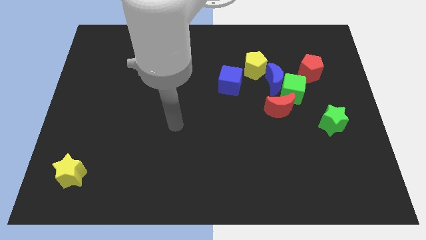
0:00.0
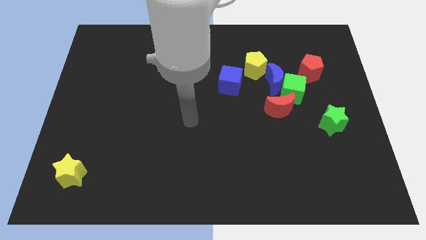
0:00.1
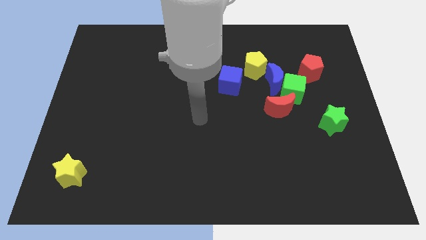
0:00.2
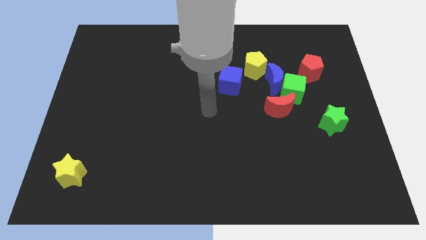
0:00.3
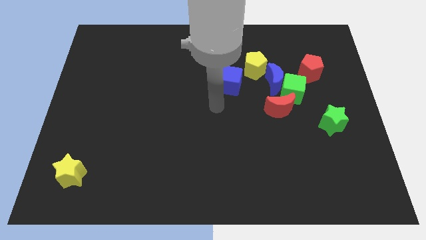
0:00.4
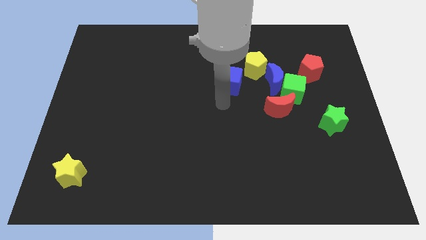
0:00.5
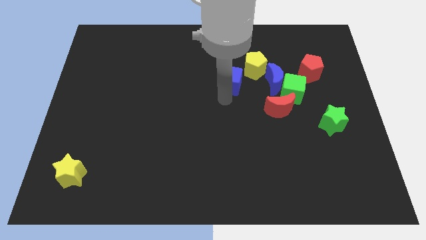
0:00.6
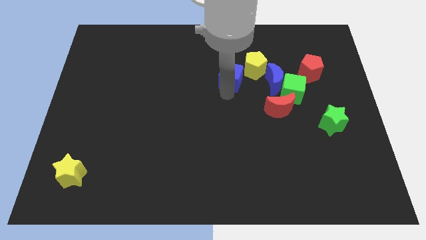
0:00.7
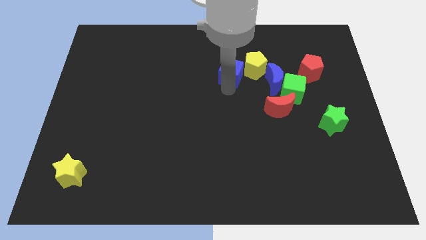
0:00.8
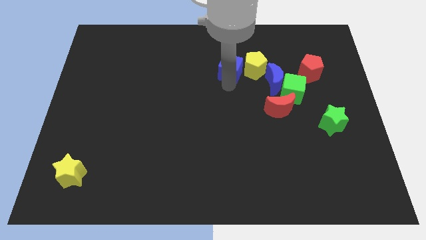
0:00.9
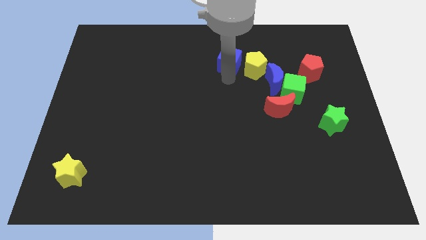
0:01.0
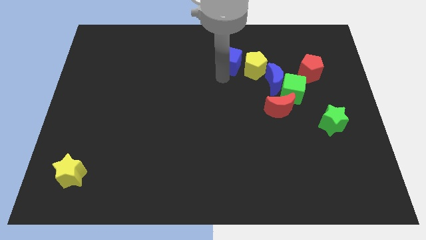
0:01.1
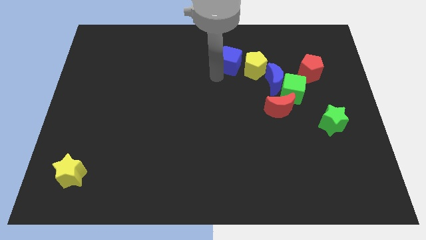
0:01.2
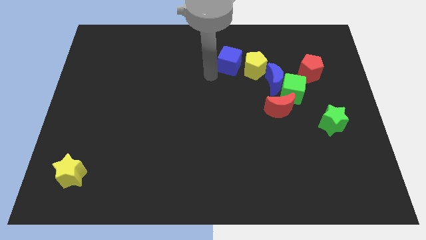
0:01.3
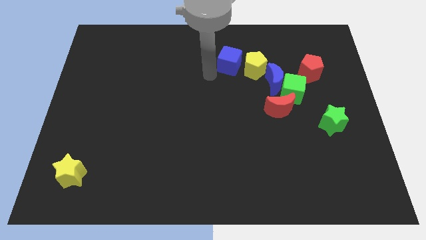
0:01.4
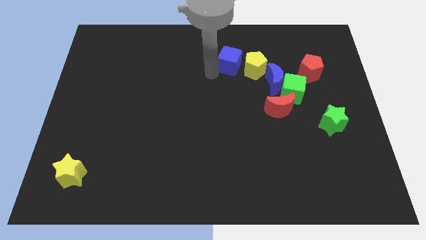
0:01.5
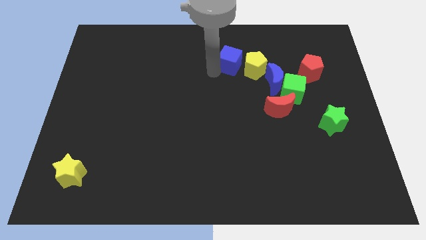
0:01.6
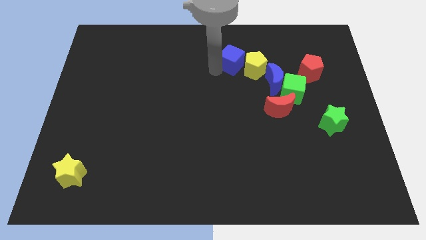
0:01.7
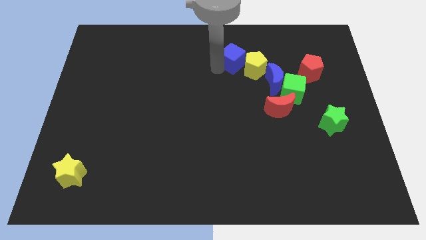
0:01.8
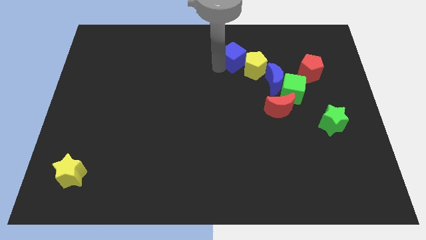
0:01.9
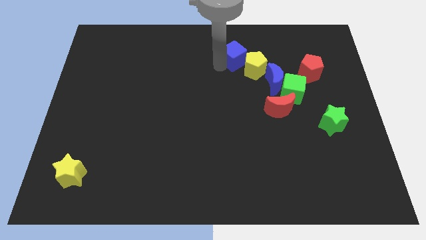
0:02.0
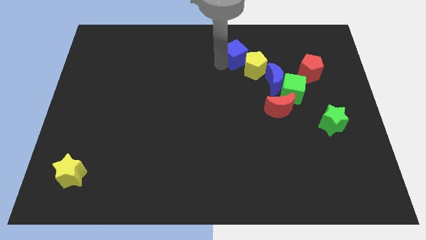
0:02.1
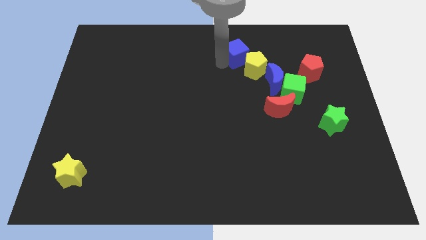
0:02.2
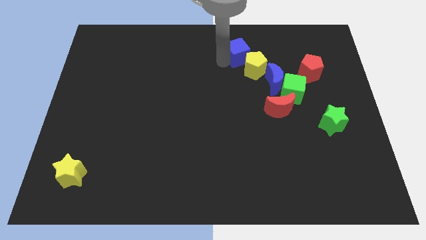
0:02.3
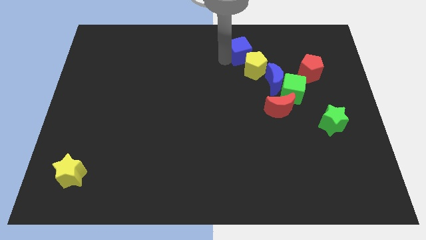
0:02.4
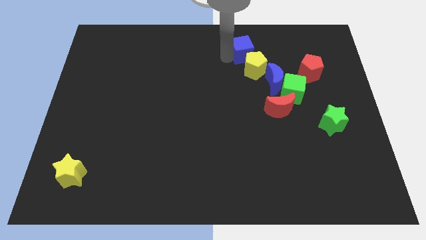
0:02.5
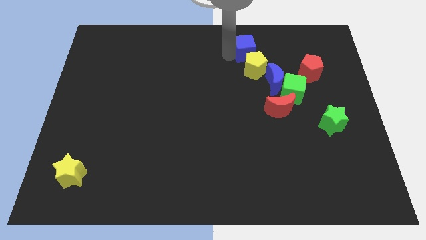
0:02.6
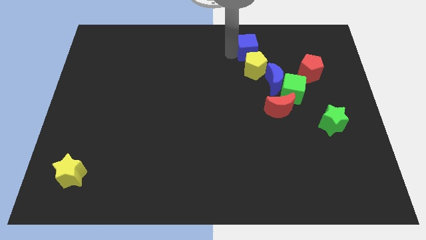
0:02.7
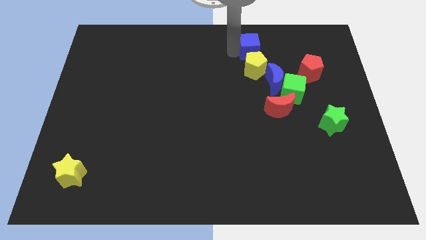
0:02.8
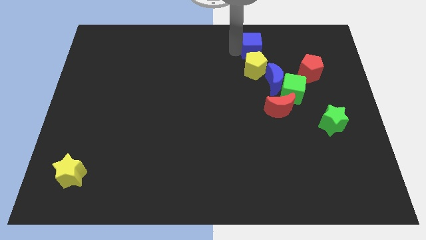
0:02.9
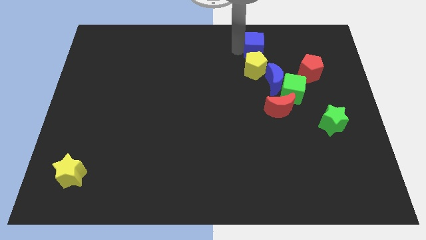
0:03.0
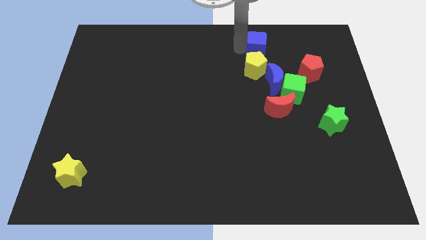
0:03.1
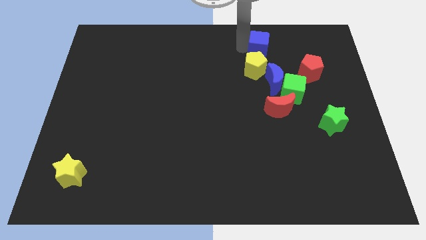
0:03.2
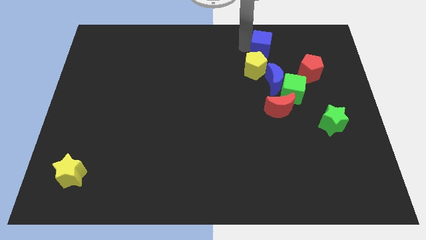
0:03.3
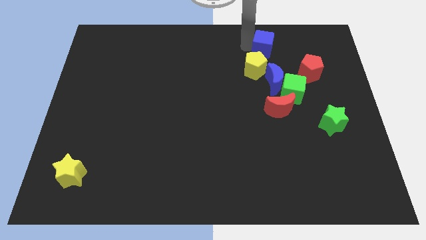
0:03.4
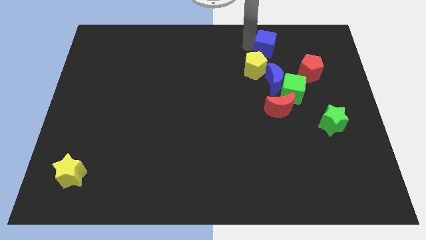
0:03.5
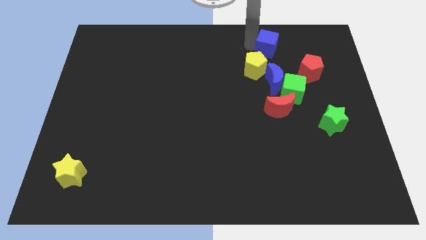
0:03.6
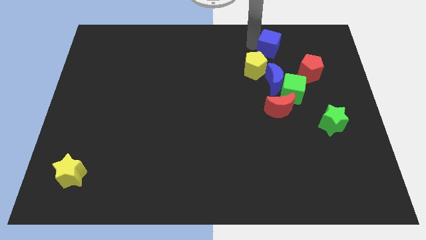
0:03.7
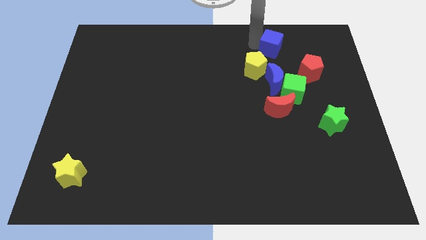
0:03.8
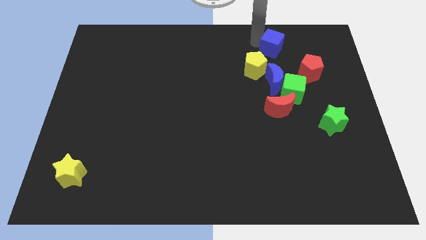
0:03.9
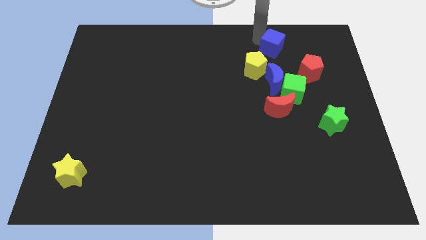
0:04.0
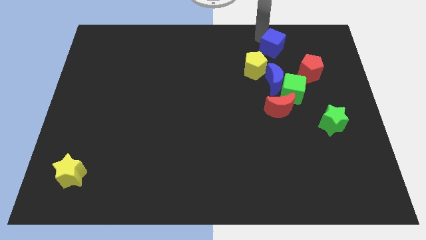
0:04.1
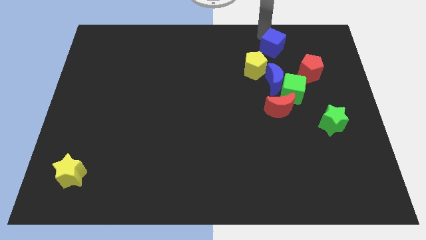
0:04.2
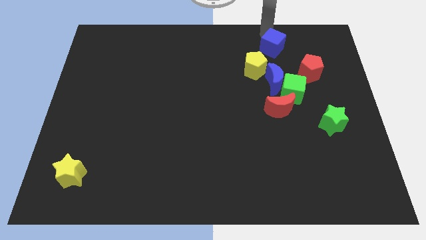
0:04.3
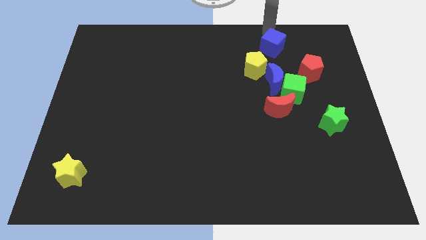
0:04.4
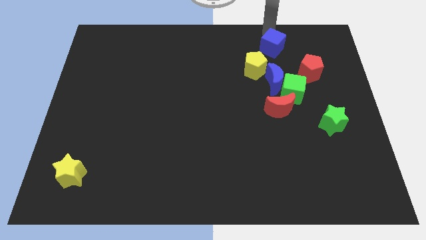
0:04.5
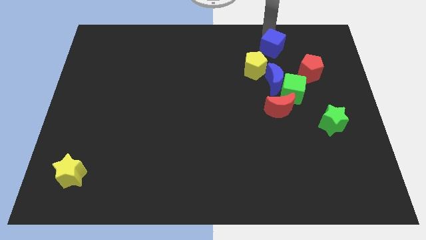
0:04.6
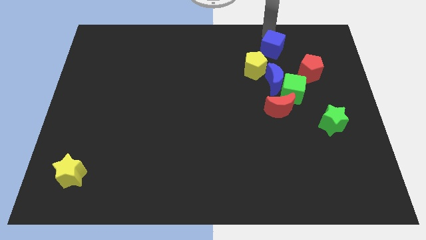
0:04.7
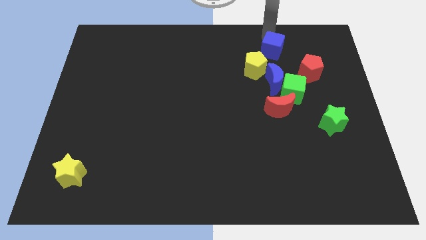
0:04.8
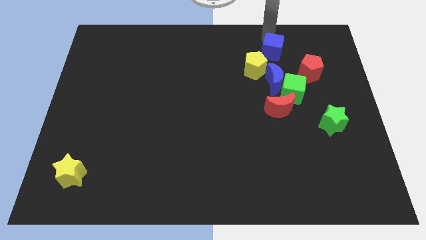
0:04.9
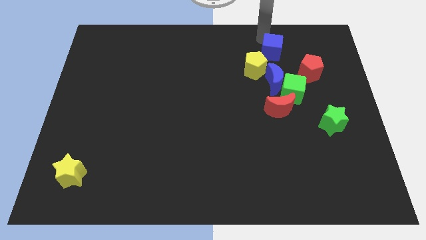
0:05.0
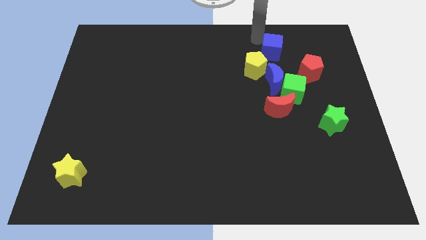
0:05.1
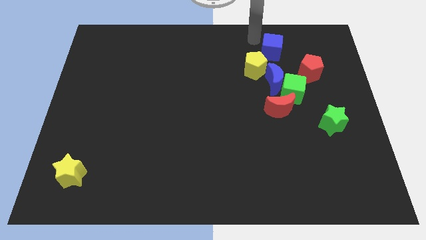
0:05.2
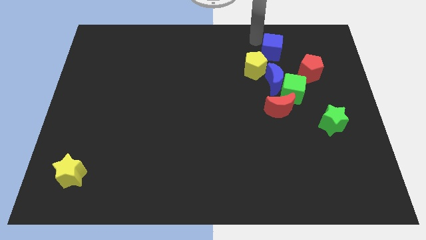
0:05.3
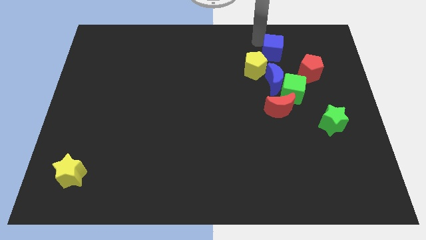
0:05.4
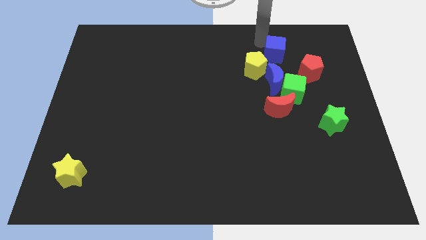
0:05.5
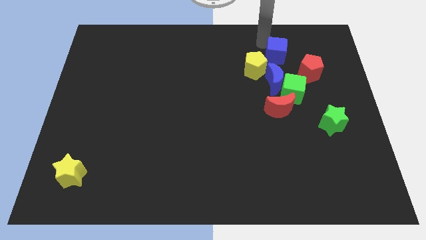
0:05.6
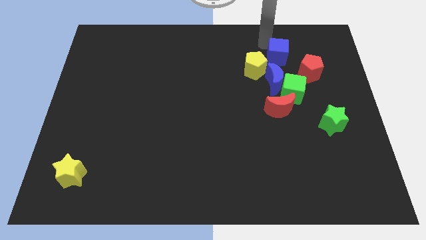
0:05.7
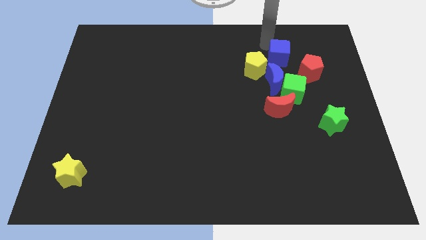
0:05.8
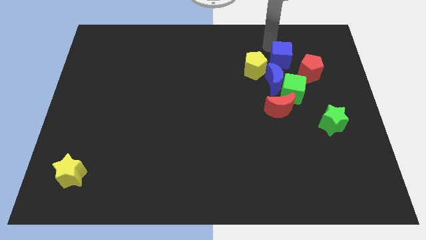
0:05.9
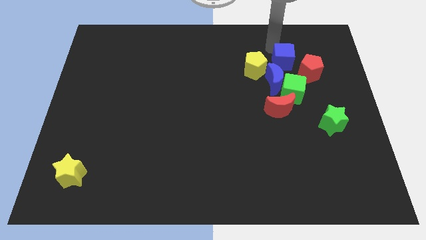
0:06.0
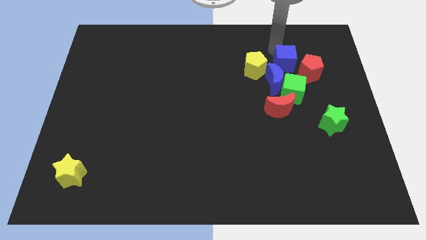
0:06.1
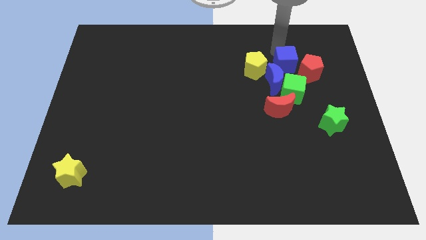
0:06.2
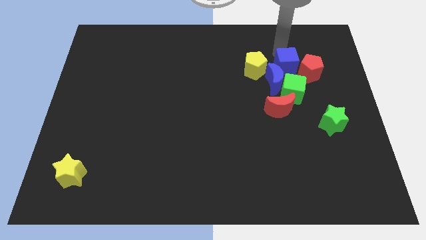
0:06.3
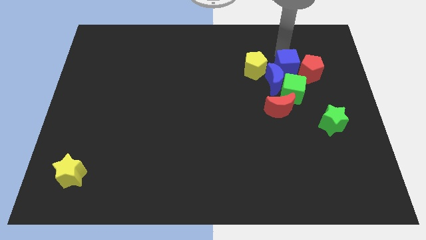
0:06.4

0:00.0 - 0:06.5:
slide the blue cube close to the red pentagon
